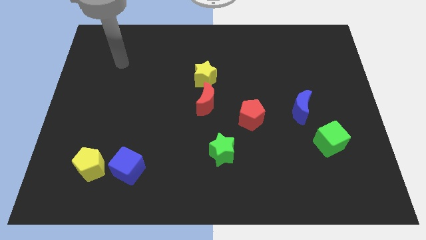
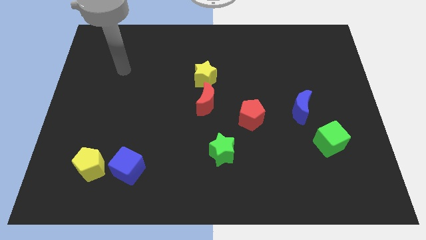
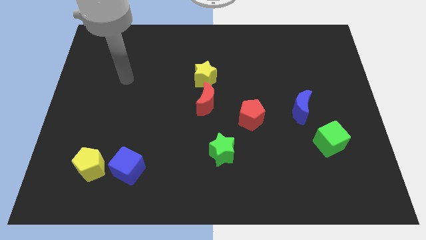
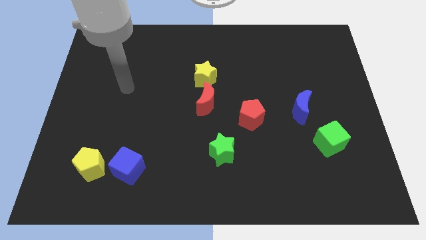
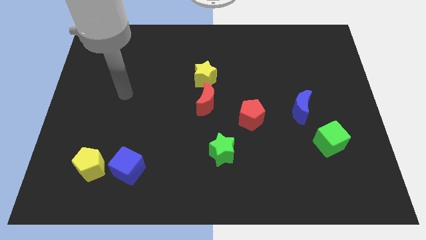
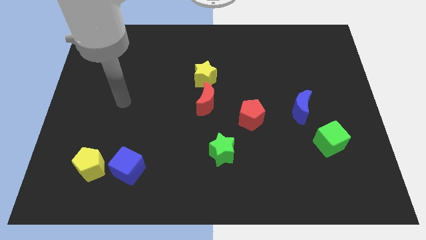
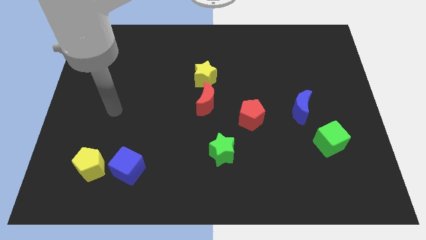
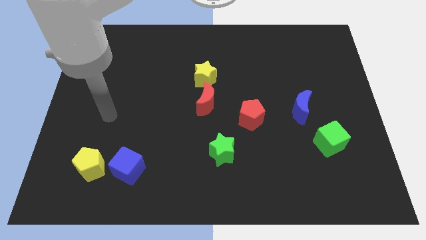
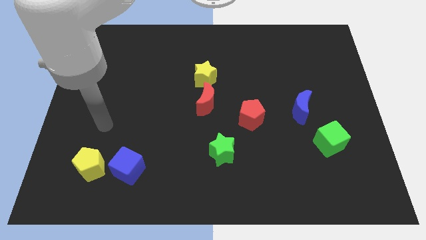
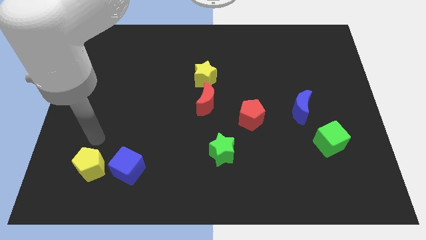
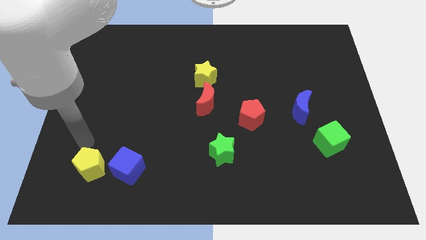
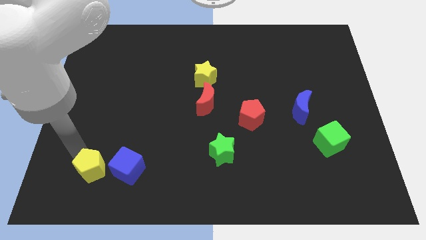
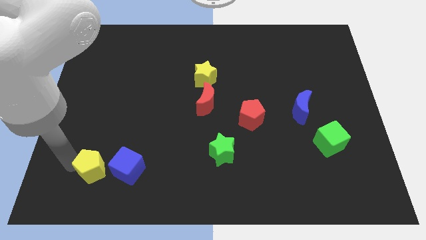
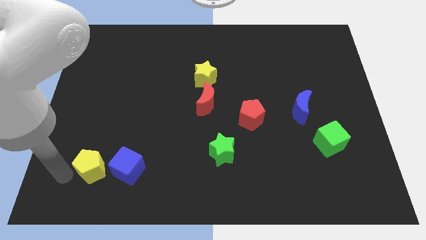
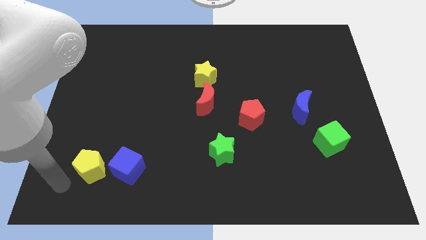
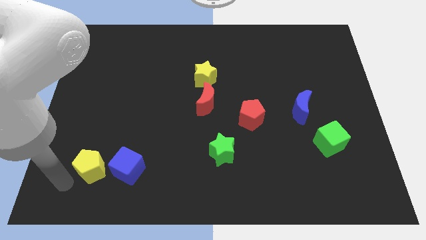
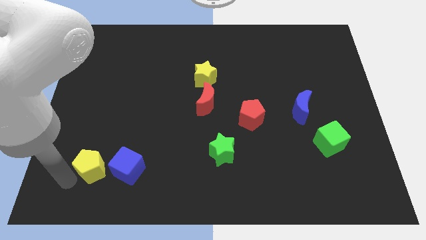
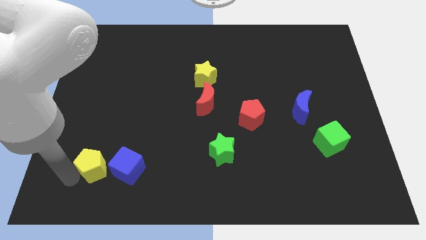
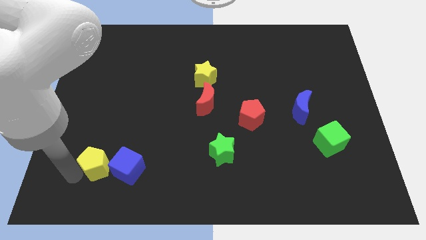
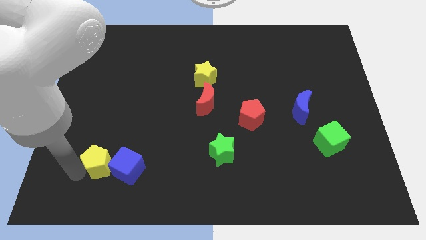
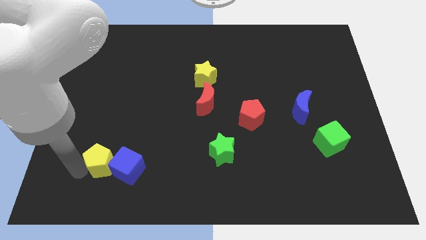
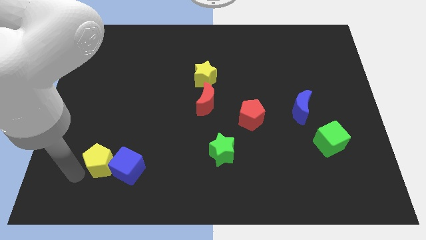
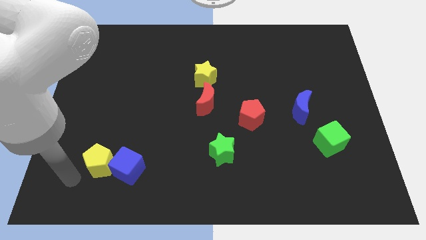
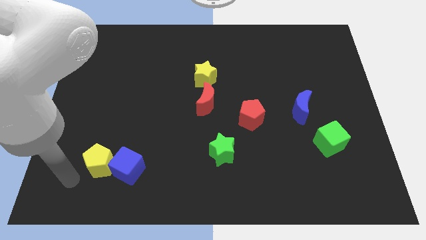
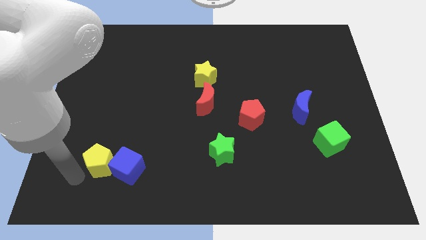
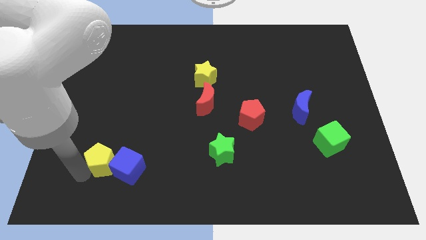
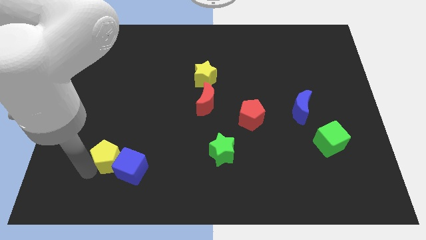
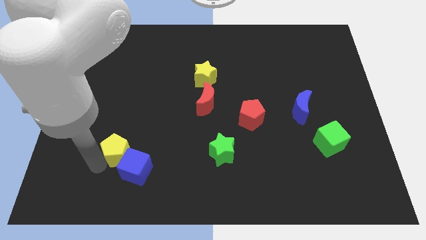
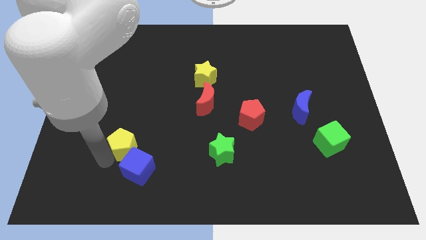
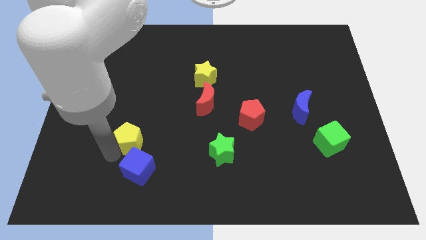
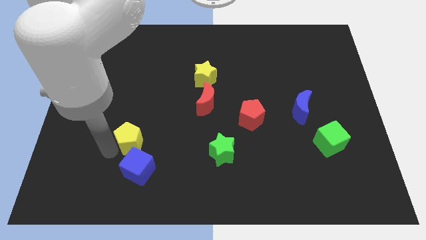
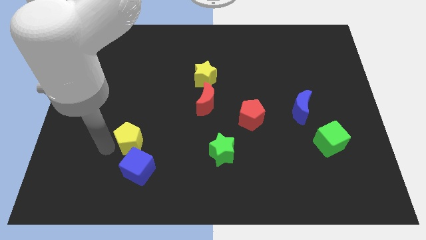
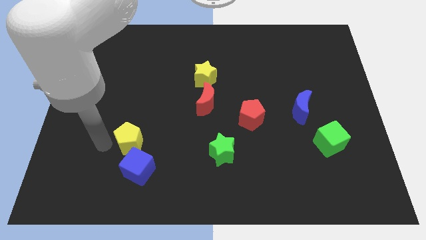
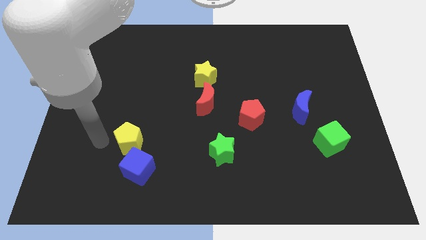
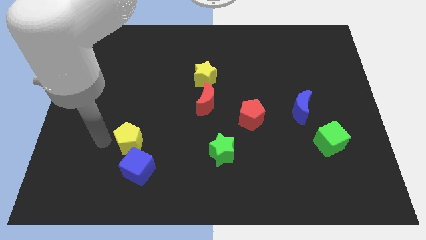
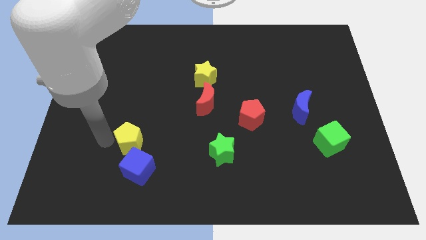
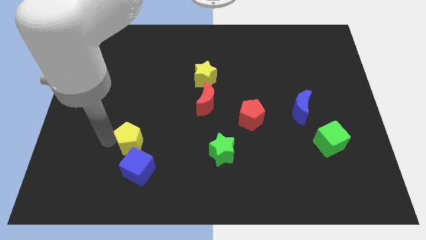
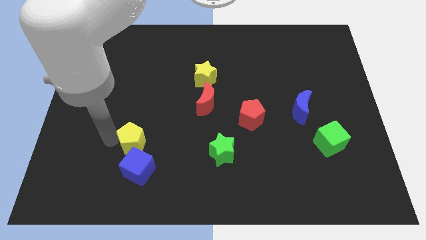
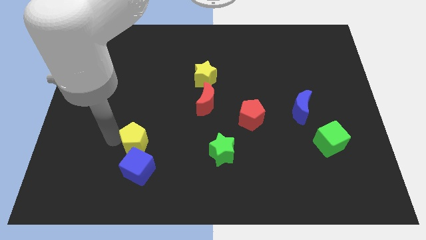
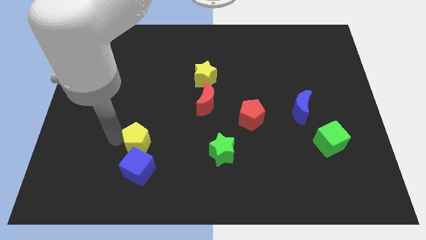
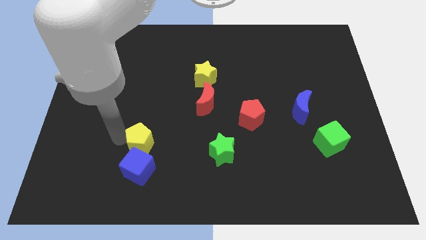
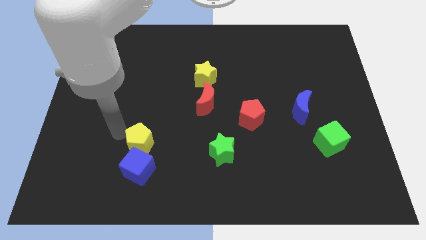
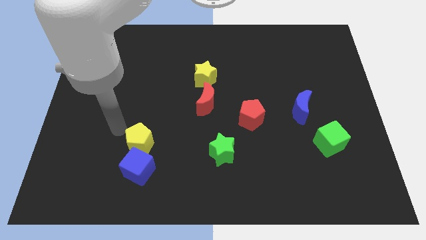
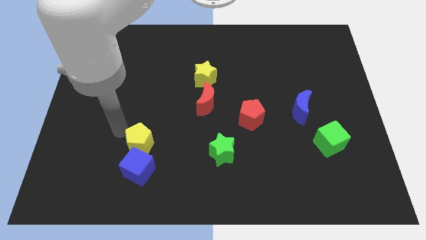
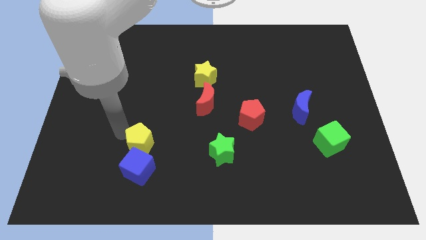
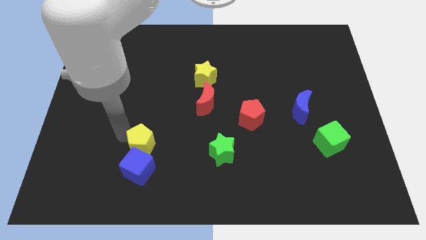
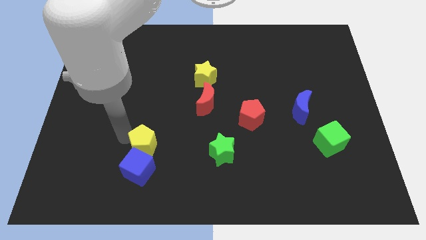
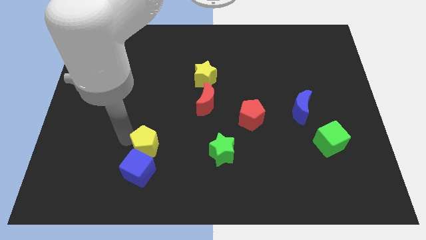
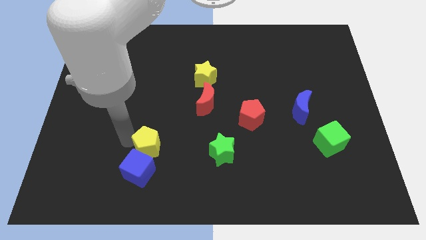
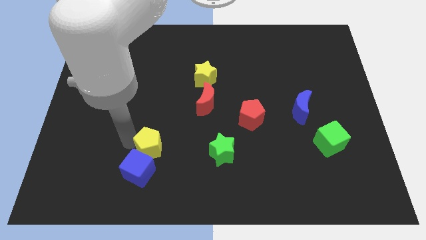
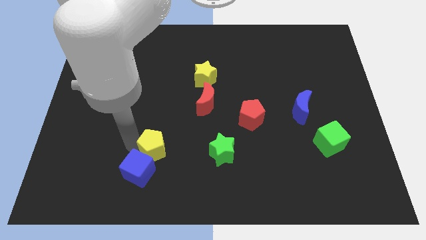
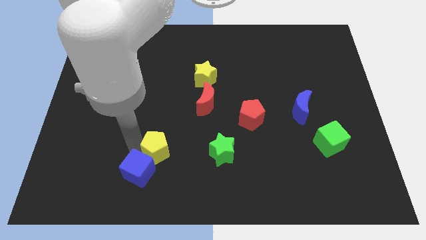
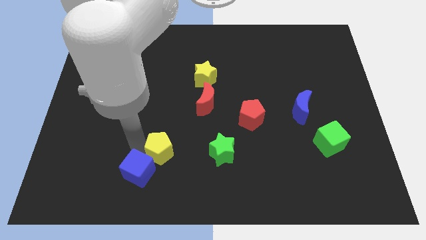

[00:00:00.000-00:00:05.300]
slide the yellow pentagon to the right of the blue cube

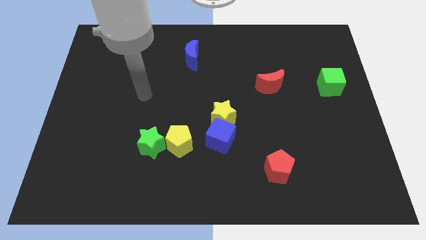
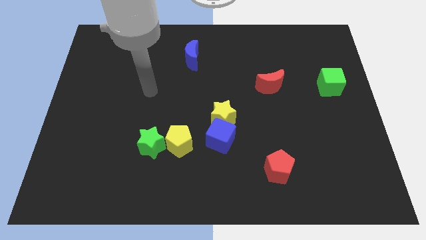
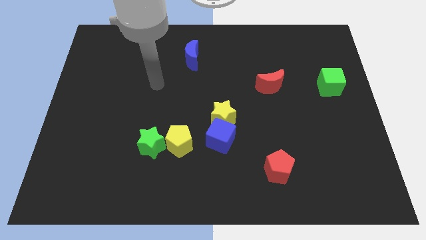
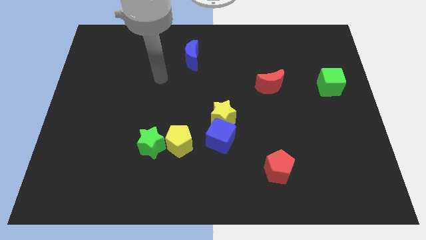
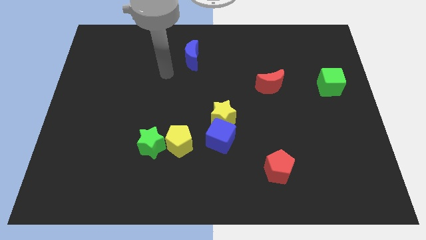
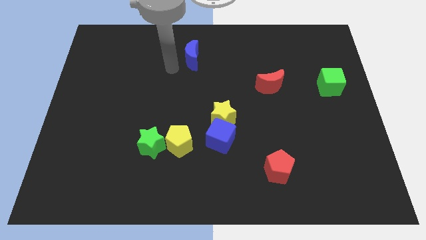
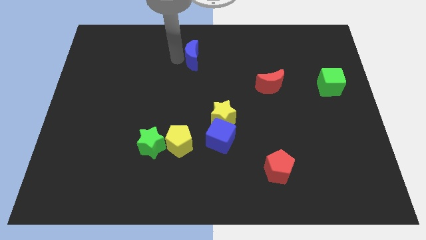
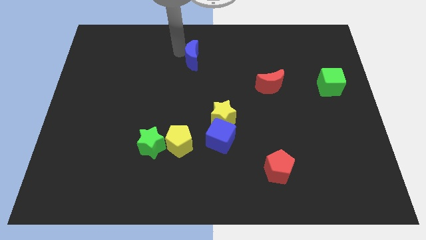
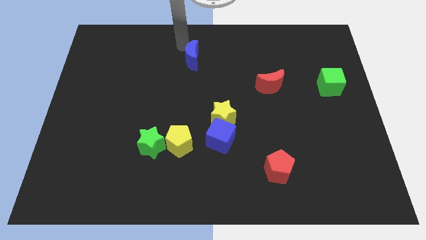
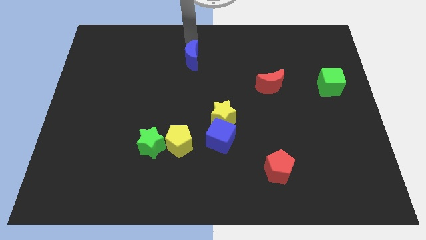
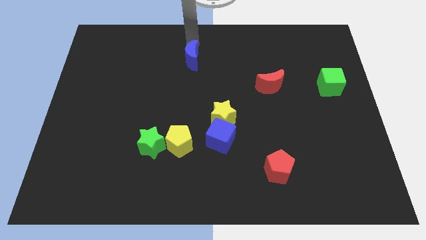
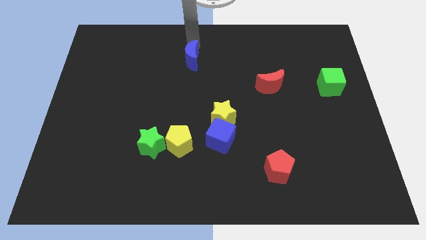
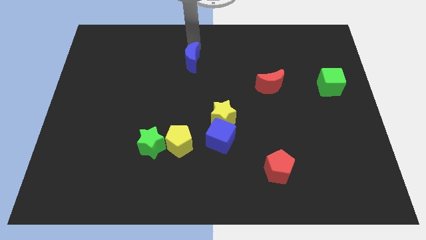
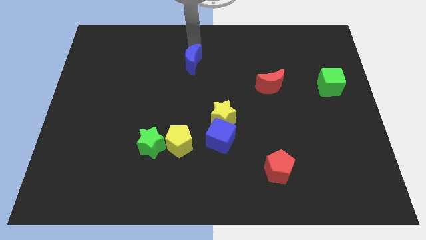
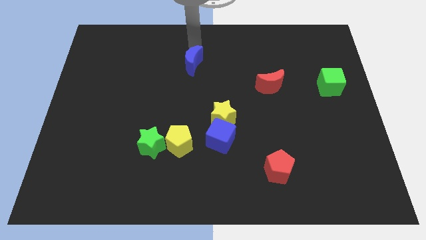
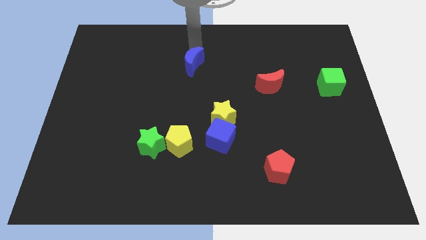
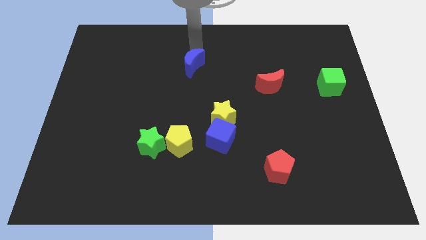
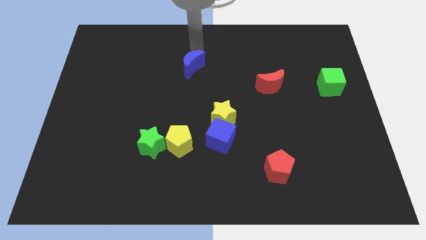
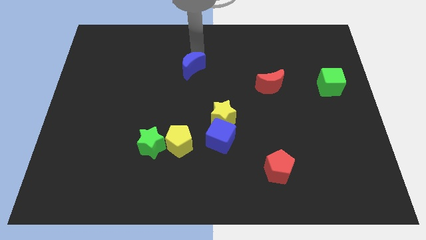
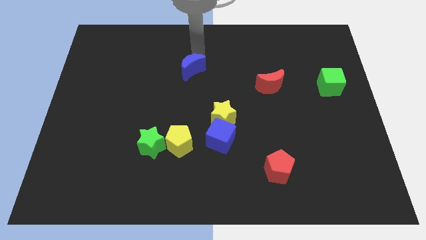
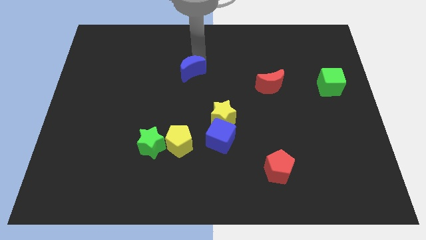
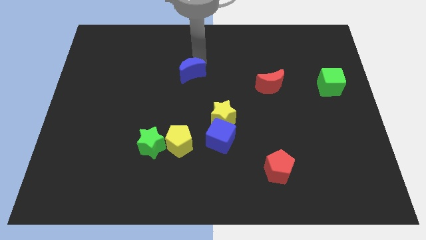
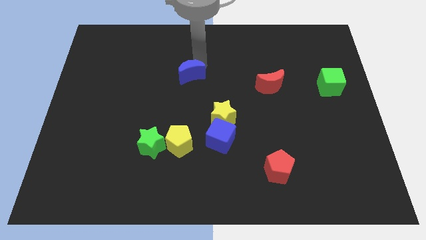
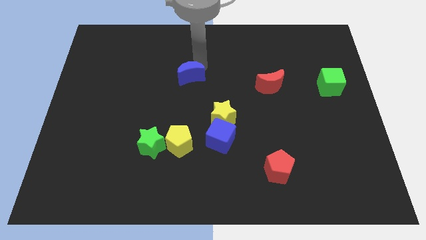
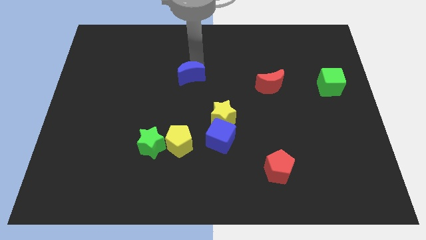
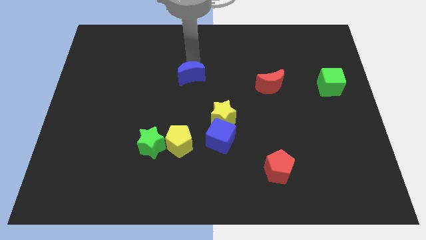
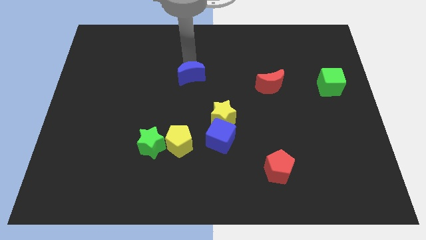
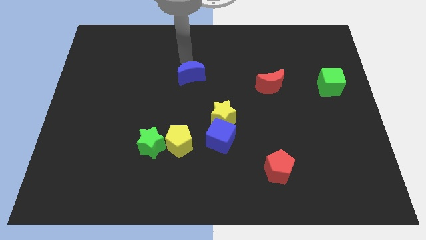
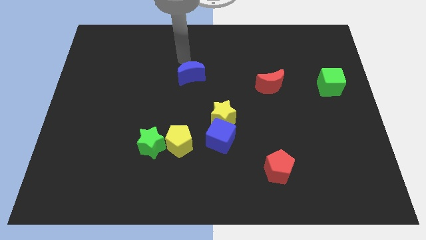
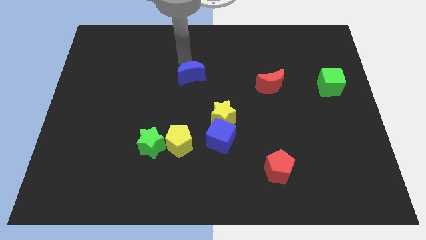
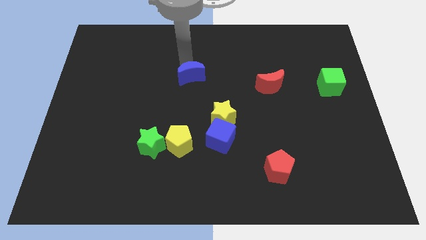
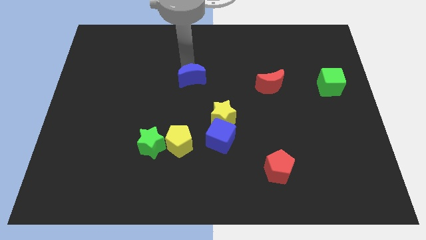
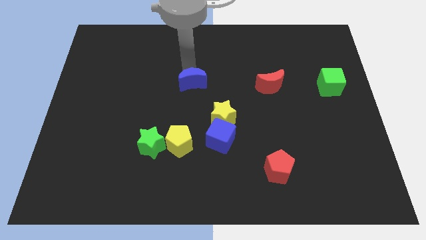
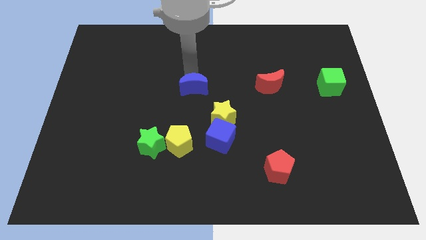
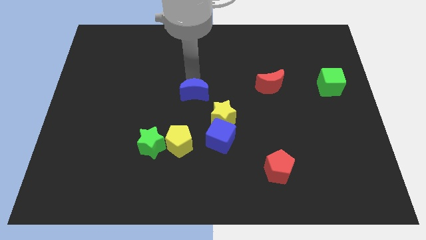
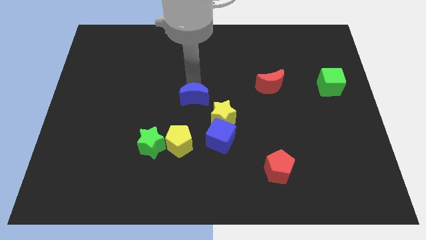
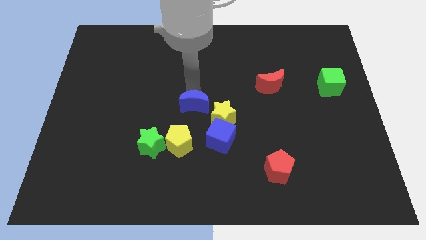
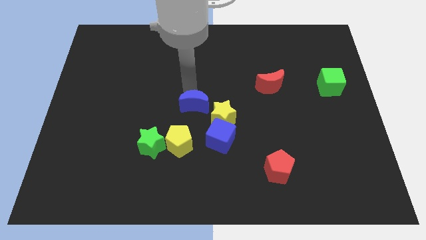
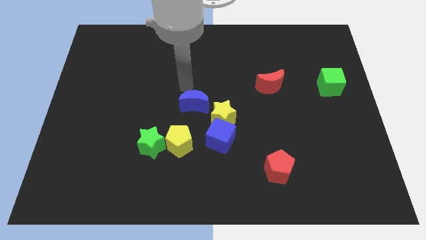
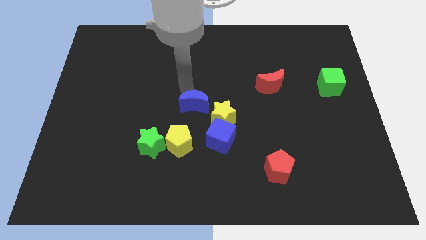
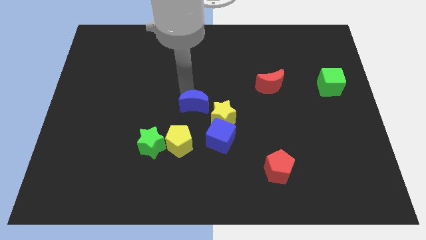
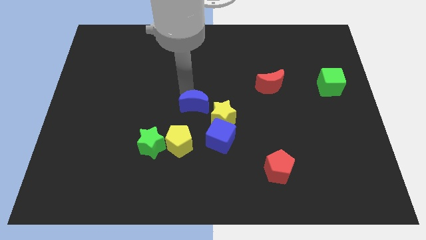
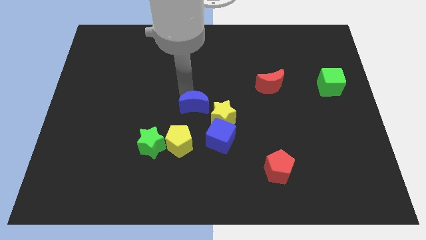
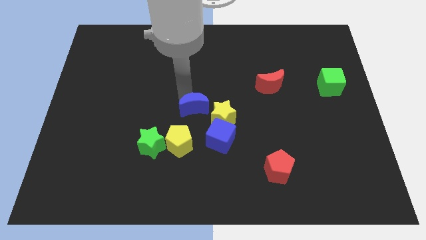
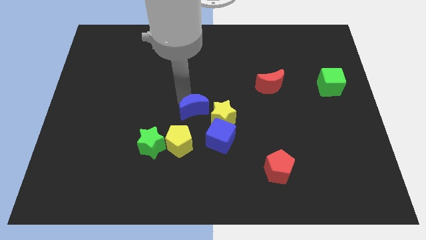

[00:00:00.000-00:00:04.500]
move the blue moon to the top right side of the yellow pentagon
